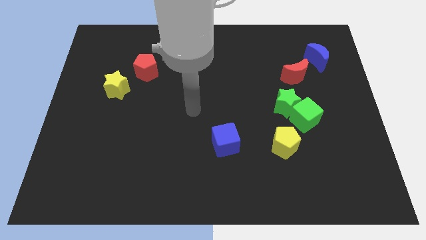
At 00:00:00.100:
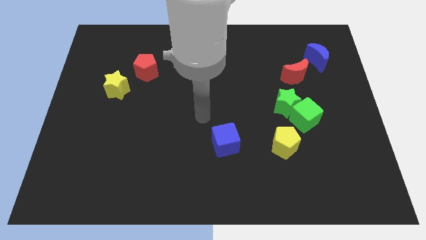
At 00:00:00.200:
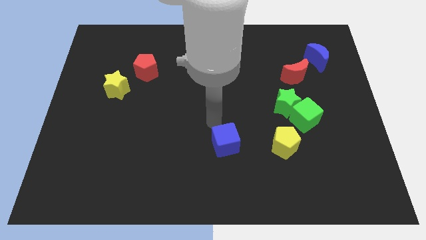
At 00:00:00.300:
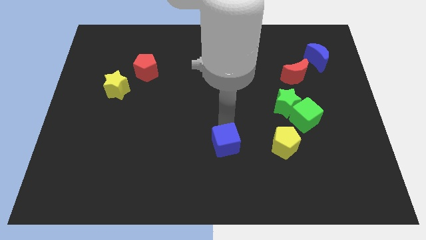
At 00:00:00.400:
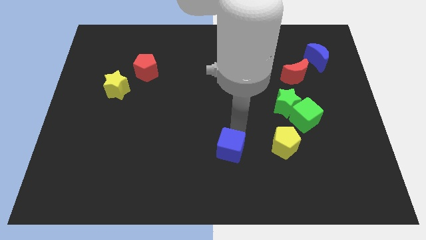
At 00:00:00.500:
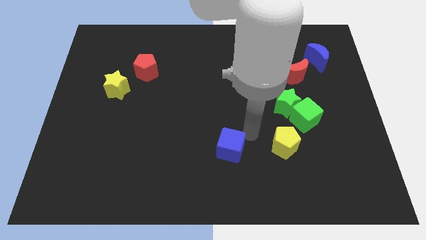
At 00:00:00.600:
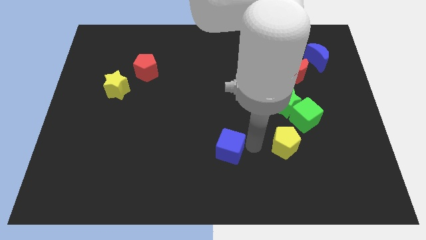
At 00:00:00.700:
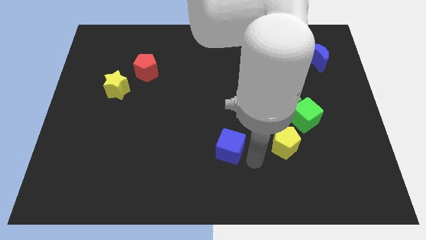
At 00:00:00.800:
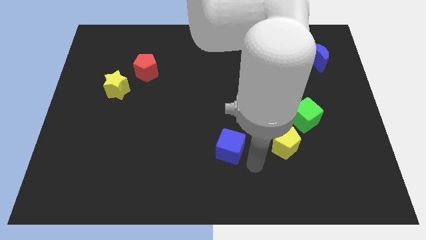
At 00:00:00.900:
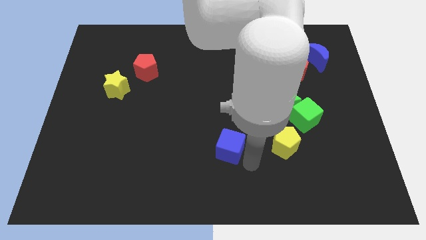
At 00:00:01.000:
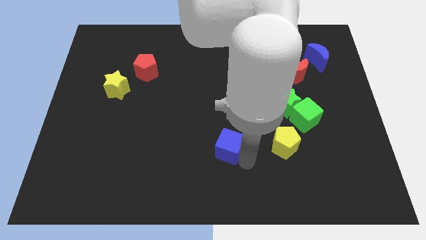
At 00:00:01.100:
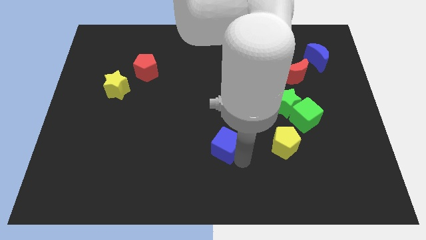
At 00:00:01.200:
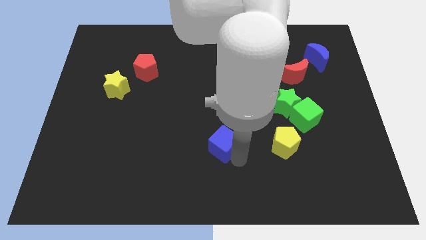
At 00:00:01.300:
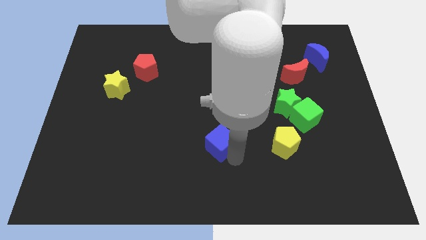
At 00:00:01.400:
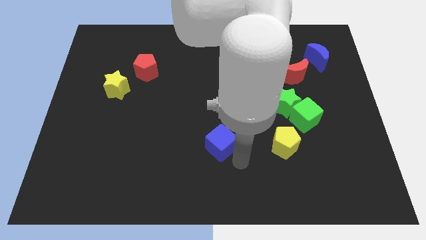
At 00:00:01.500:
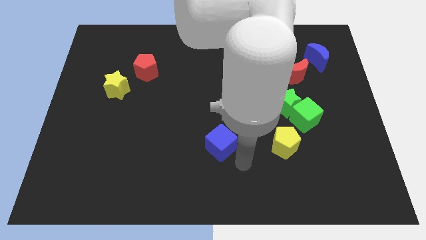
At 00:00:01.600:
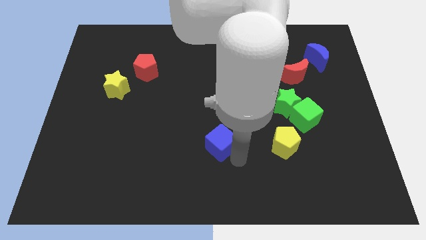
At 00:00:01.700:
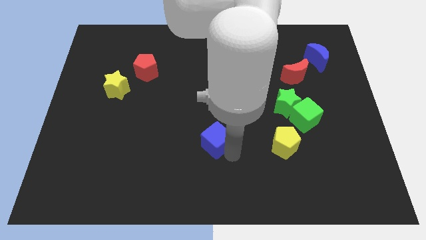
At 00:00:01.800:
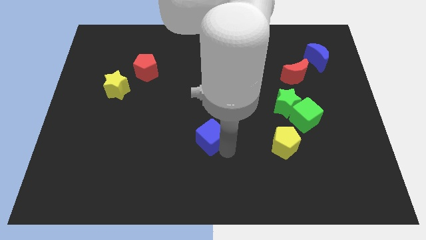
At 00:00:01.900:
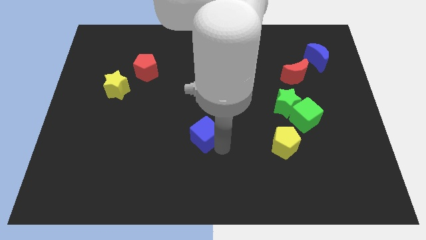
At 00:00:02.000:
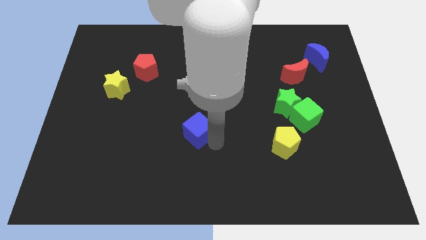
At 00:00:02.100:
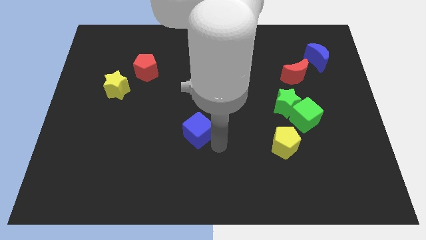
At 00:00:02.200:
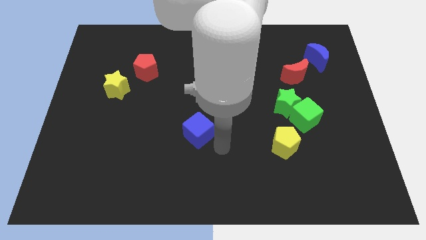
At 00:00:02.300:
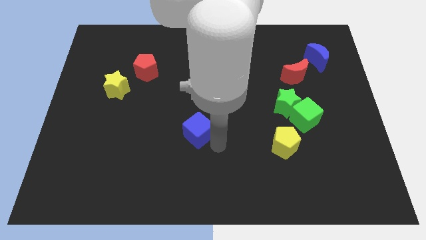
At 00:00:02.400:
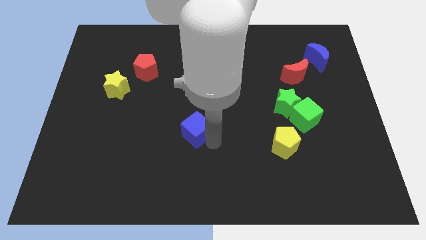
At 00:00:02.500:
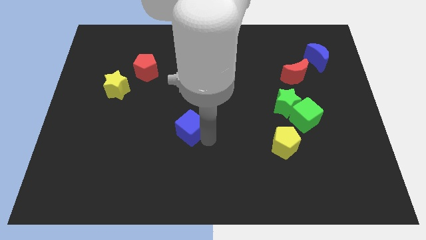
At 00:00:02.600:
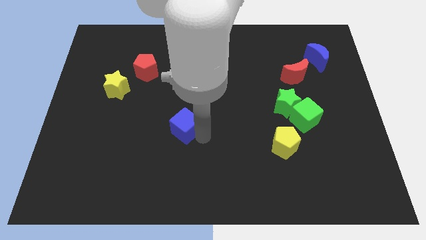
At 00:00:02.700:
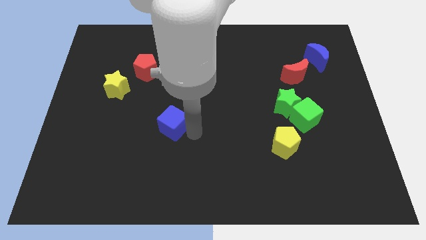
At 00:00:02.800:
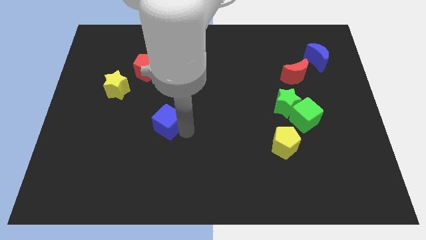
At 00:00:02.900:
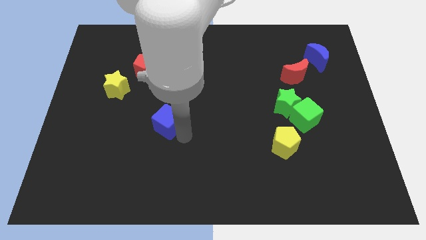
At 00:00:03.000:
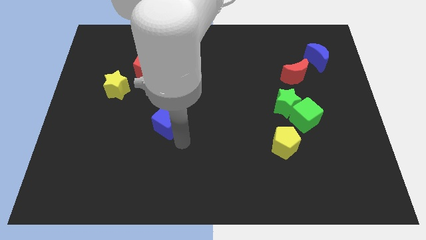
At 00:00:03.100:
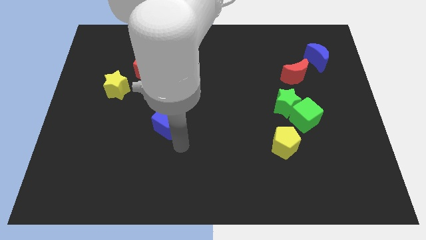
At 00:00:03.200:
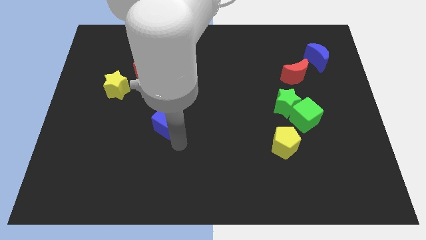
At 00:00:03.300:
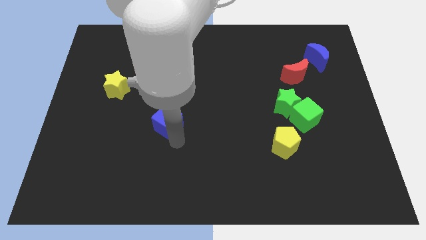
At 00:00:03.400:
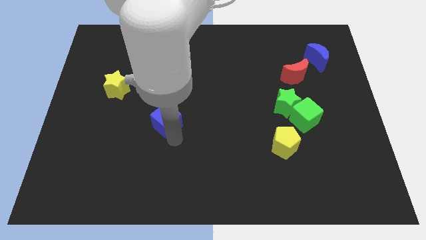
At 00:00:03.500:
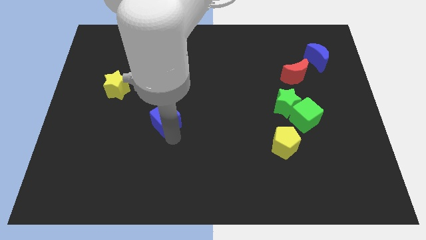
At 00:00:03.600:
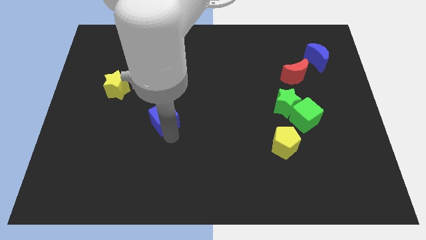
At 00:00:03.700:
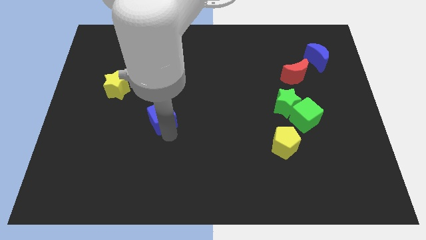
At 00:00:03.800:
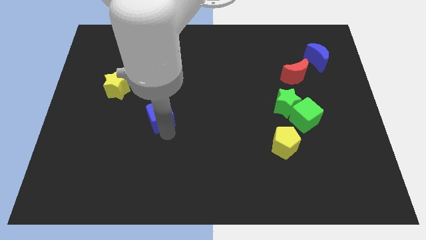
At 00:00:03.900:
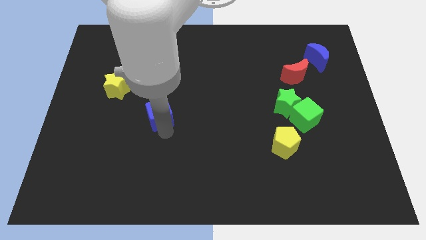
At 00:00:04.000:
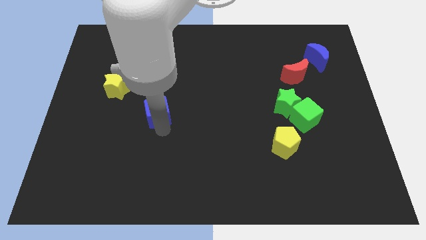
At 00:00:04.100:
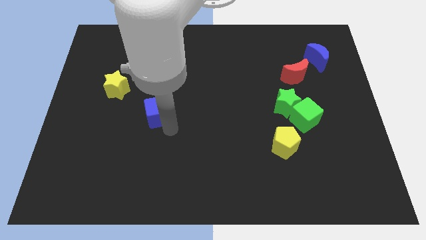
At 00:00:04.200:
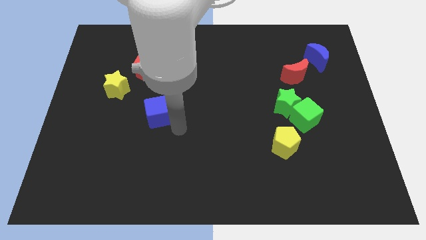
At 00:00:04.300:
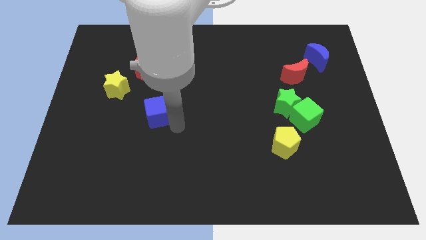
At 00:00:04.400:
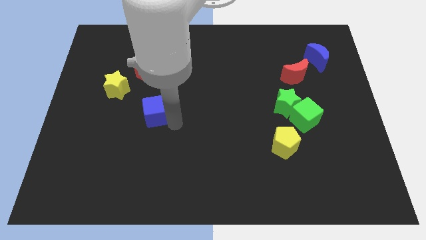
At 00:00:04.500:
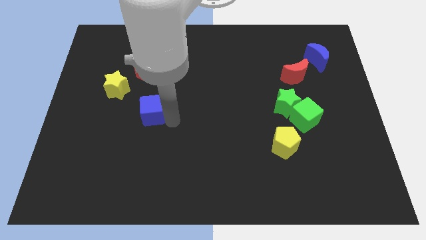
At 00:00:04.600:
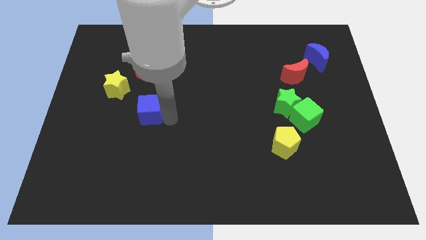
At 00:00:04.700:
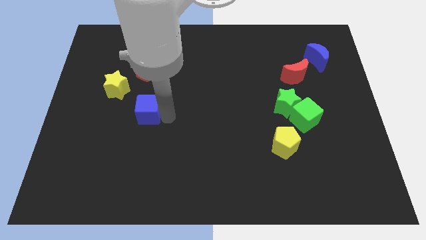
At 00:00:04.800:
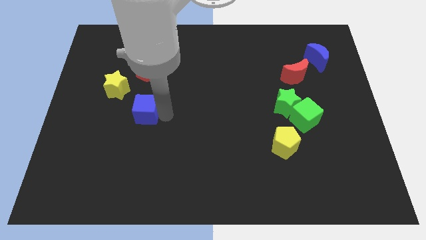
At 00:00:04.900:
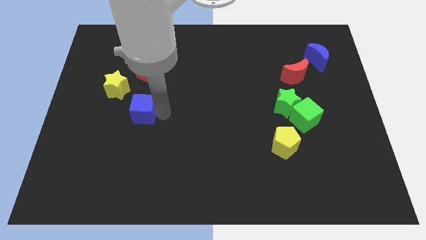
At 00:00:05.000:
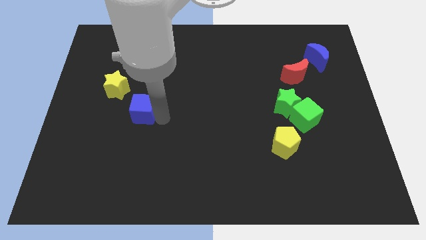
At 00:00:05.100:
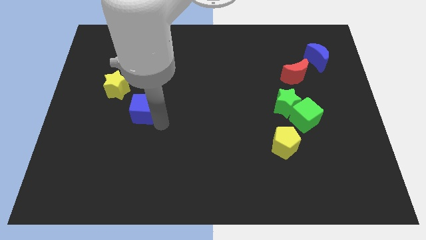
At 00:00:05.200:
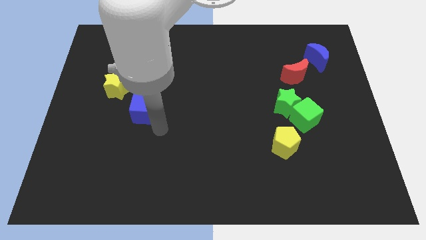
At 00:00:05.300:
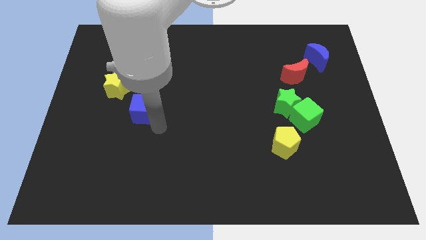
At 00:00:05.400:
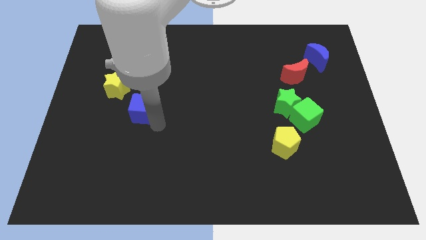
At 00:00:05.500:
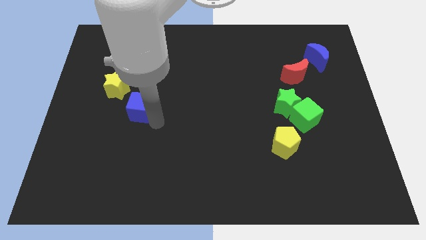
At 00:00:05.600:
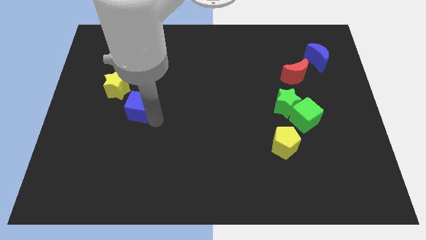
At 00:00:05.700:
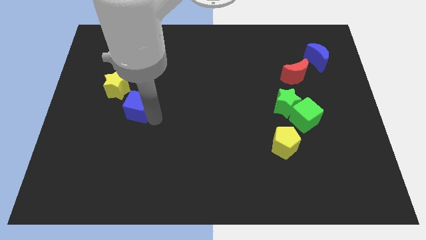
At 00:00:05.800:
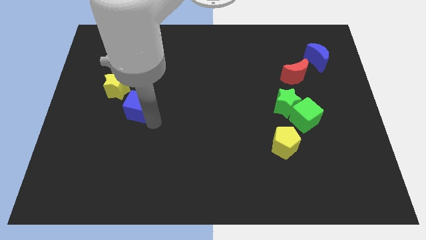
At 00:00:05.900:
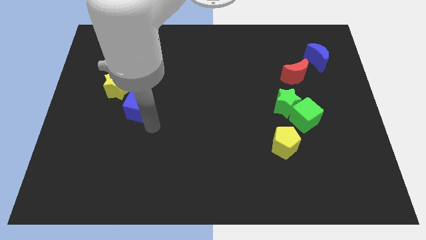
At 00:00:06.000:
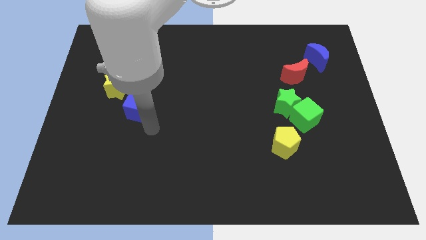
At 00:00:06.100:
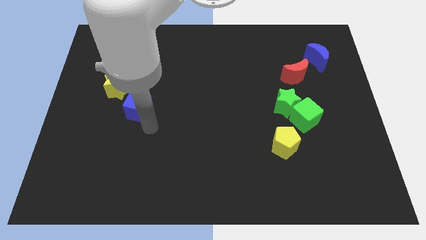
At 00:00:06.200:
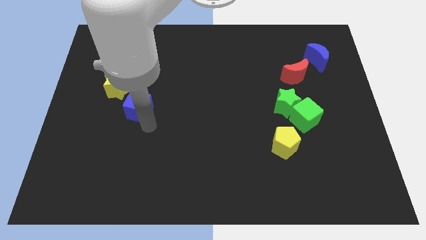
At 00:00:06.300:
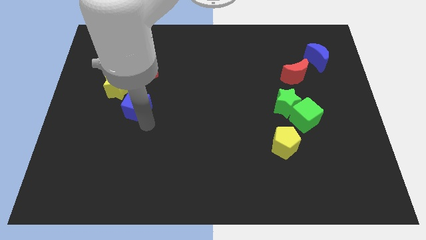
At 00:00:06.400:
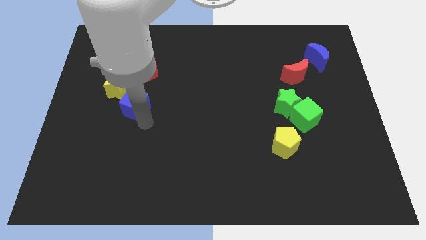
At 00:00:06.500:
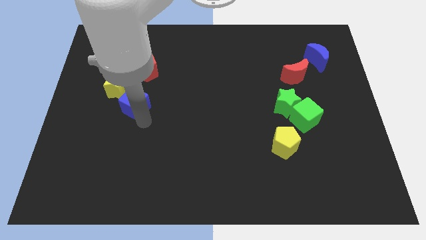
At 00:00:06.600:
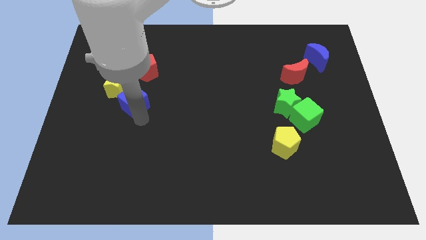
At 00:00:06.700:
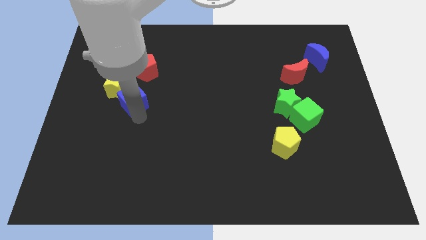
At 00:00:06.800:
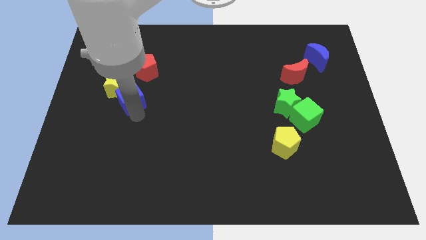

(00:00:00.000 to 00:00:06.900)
push the blue cube to the yellow star

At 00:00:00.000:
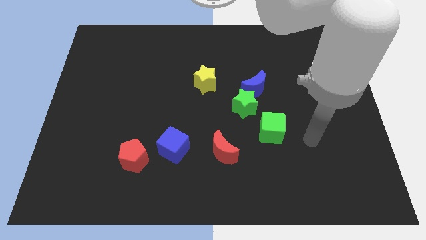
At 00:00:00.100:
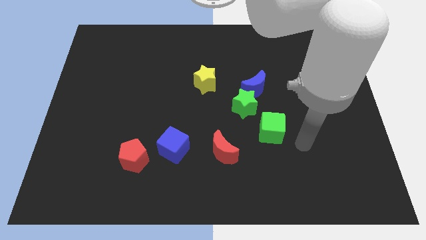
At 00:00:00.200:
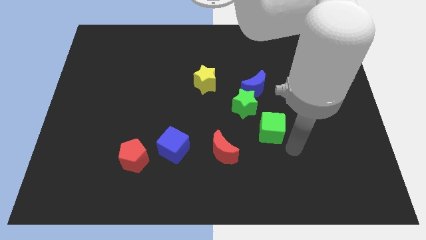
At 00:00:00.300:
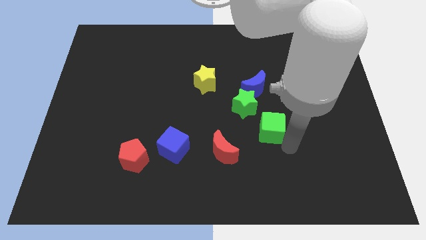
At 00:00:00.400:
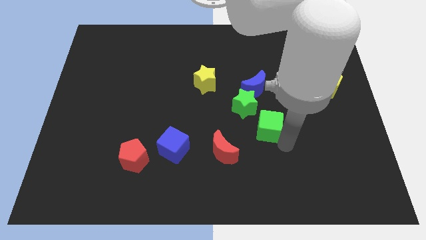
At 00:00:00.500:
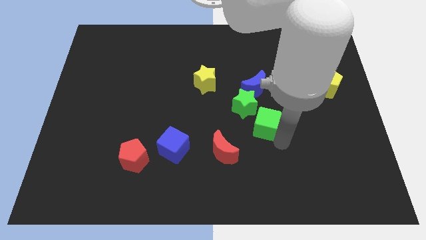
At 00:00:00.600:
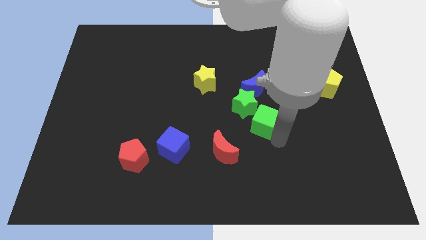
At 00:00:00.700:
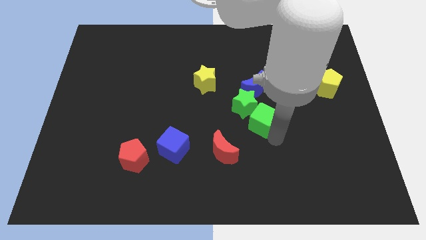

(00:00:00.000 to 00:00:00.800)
slide the green cube to the green star
